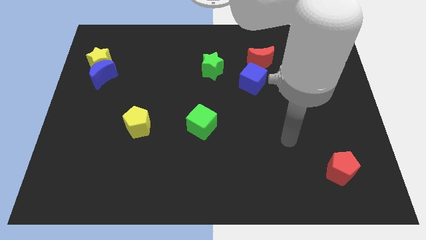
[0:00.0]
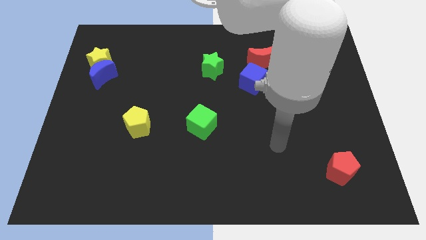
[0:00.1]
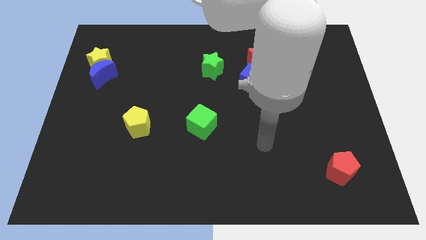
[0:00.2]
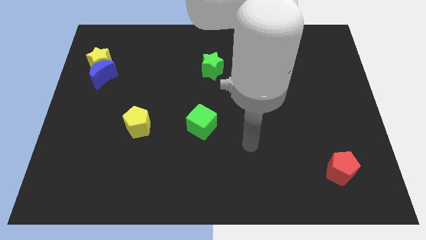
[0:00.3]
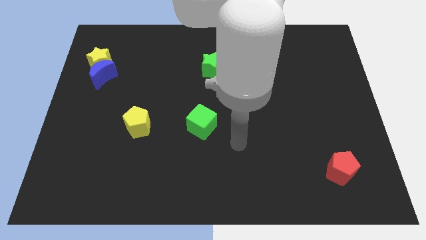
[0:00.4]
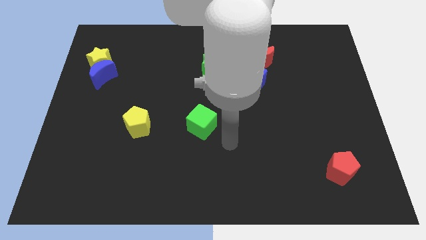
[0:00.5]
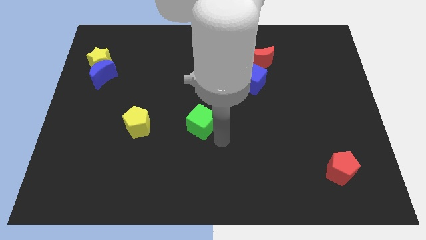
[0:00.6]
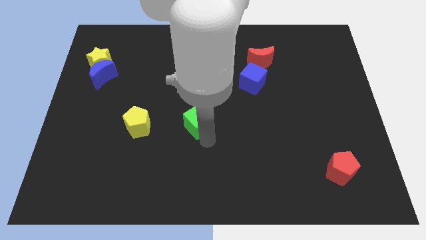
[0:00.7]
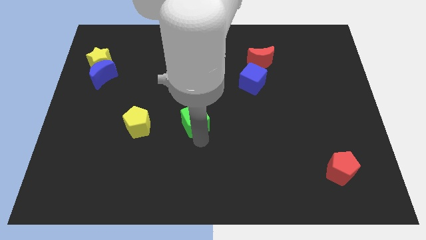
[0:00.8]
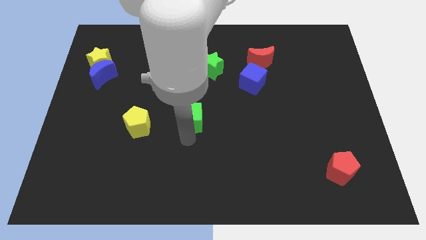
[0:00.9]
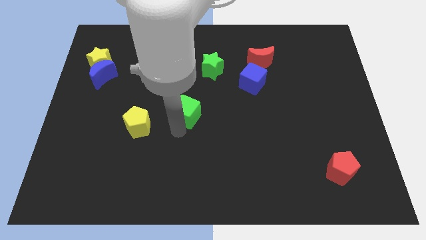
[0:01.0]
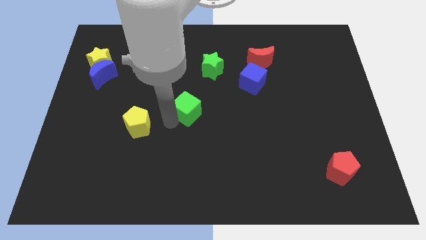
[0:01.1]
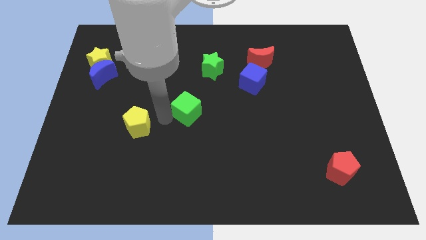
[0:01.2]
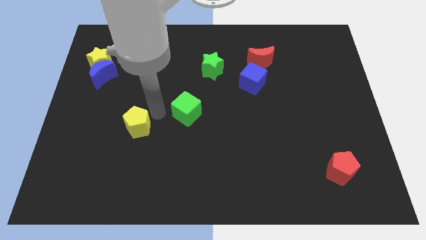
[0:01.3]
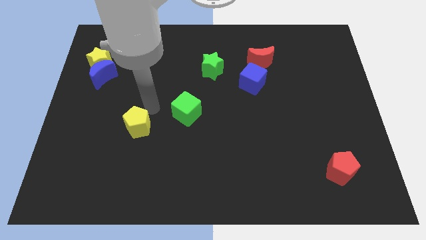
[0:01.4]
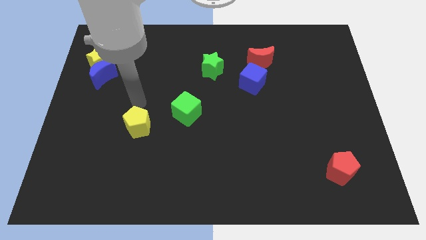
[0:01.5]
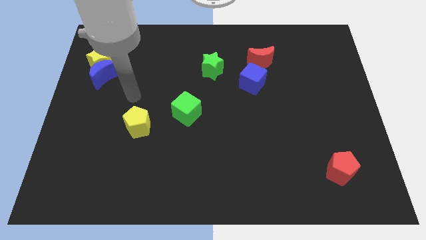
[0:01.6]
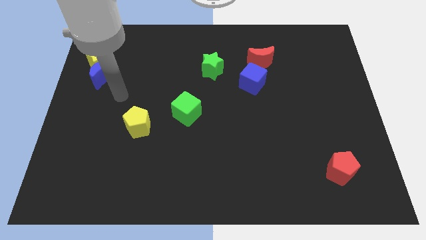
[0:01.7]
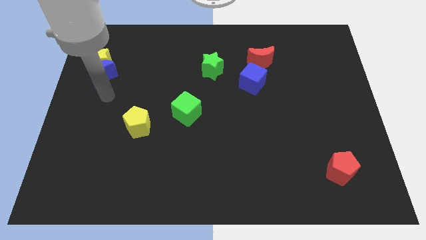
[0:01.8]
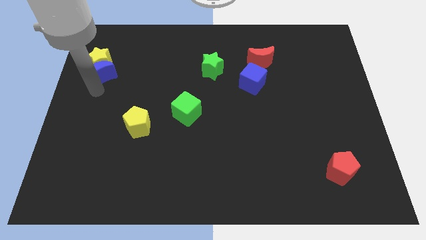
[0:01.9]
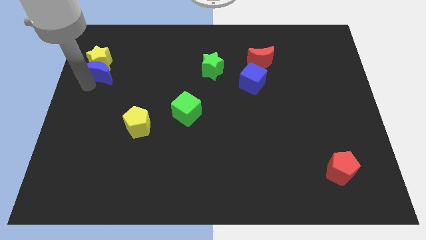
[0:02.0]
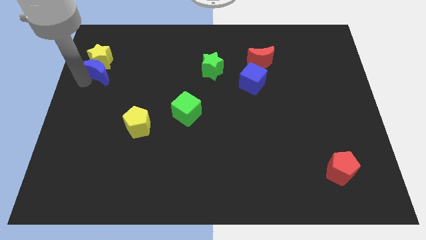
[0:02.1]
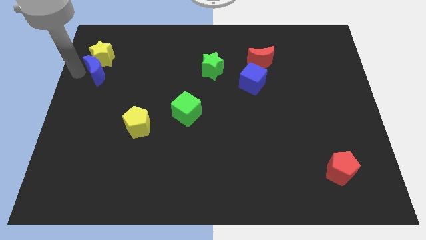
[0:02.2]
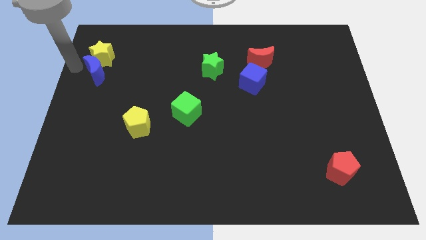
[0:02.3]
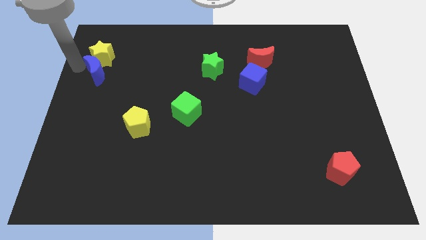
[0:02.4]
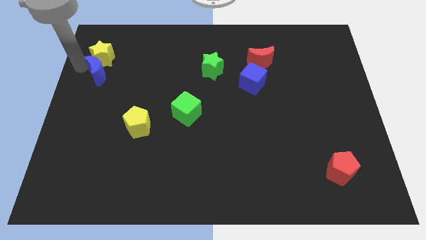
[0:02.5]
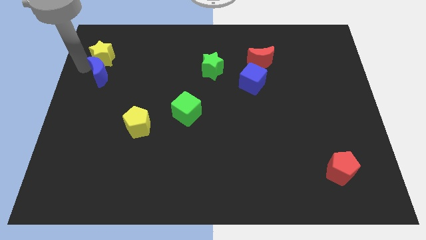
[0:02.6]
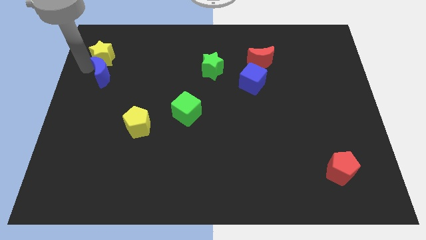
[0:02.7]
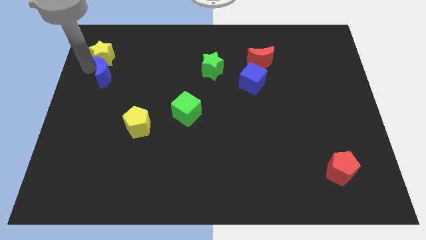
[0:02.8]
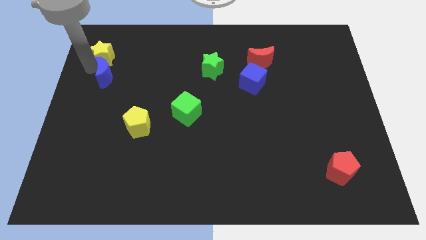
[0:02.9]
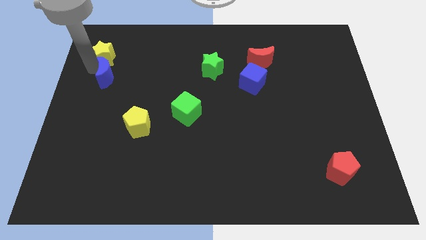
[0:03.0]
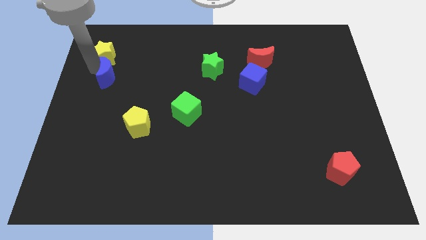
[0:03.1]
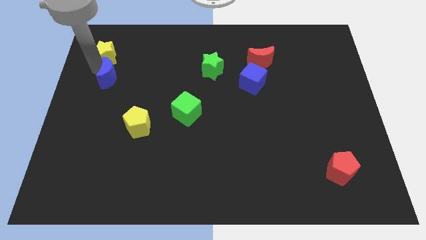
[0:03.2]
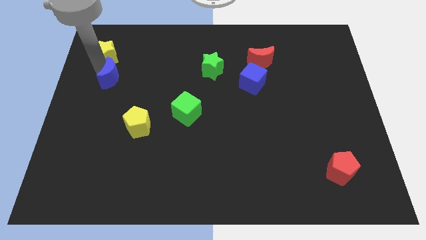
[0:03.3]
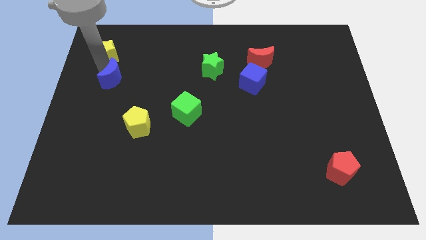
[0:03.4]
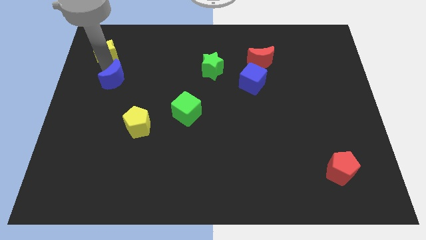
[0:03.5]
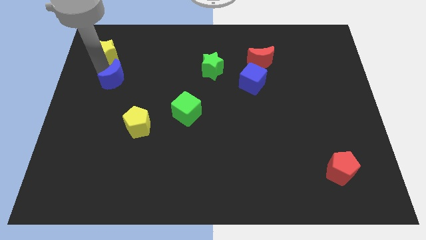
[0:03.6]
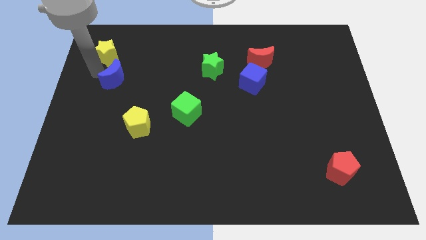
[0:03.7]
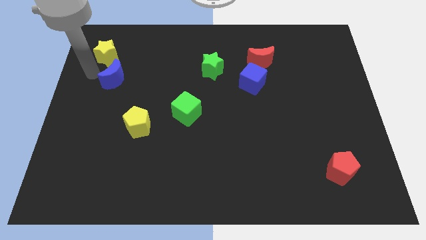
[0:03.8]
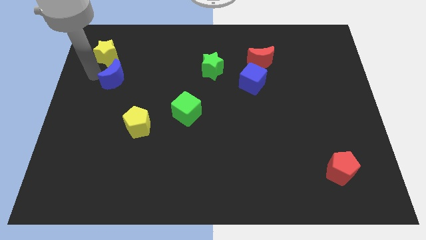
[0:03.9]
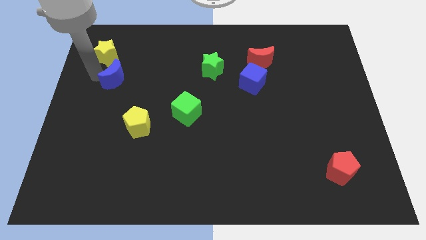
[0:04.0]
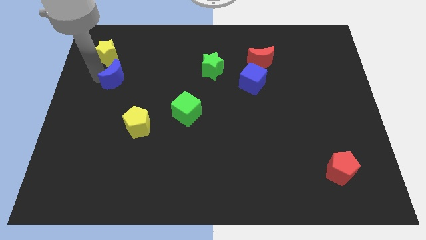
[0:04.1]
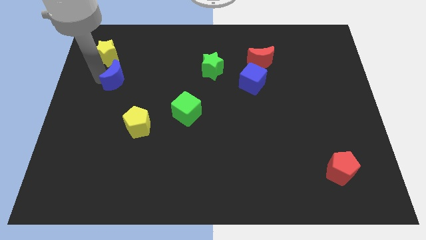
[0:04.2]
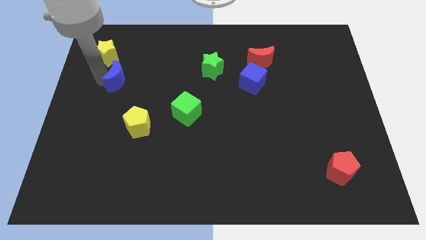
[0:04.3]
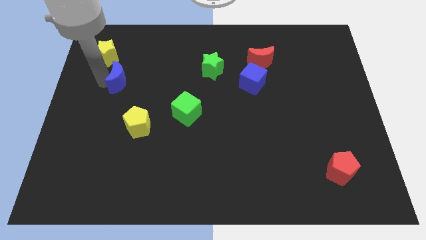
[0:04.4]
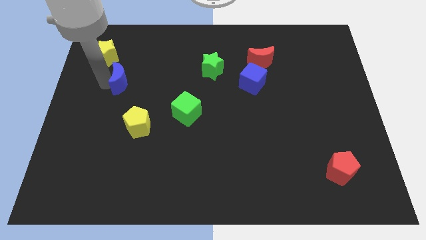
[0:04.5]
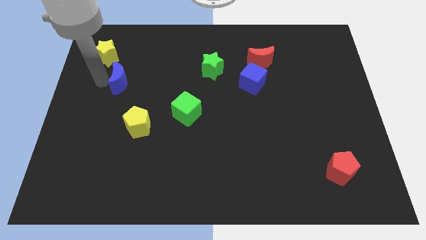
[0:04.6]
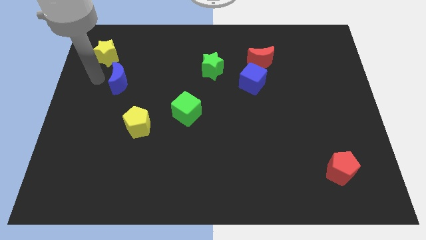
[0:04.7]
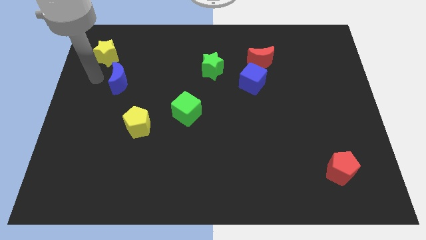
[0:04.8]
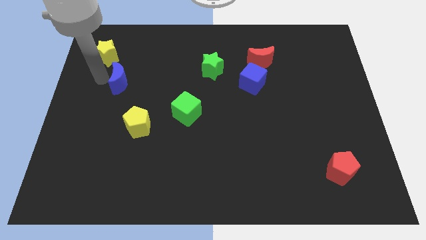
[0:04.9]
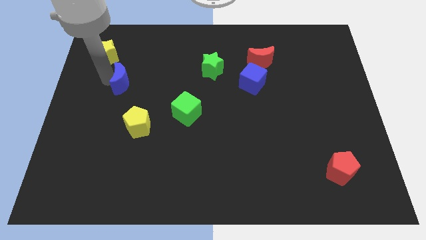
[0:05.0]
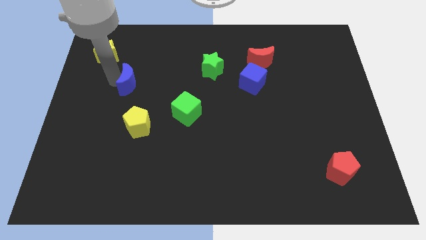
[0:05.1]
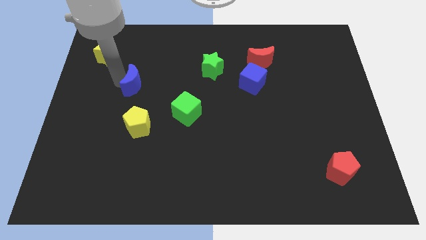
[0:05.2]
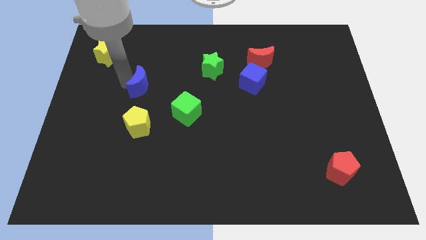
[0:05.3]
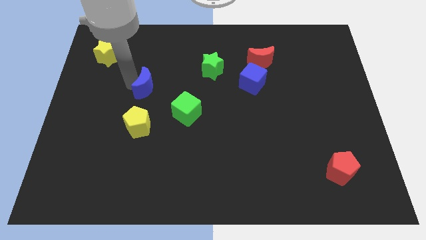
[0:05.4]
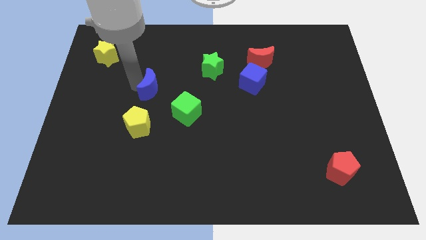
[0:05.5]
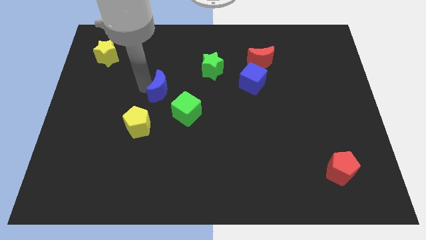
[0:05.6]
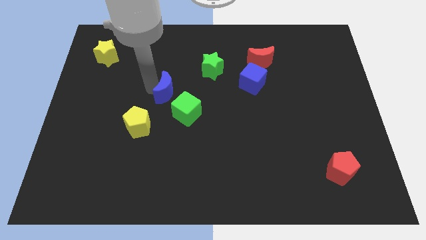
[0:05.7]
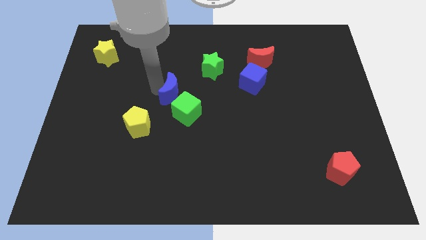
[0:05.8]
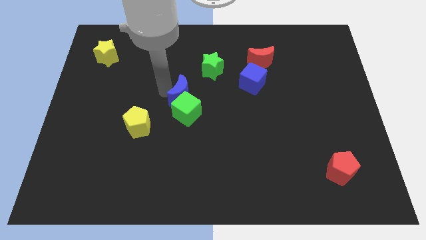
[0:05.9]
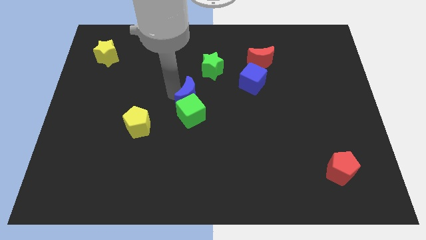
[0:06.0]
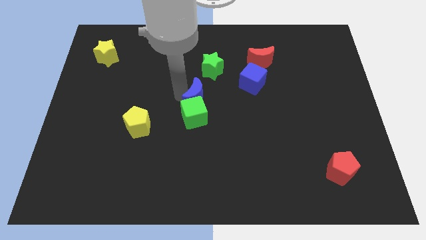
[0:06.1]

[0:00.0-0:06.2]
slide the blue moon to the bottom side of the green star

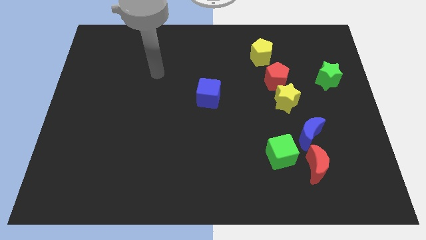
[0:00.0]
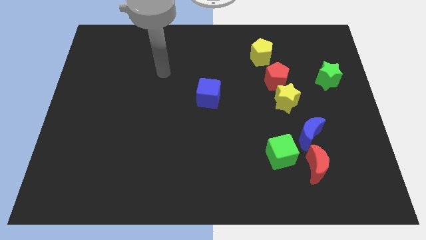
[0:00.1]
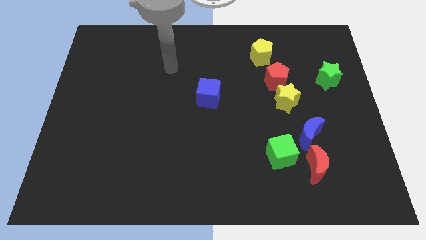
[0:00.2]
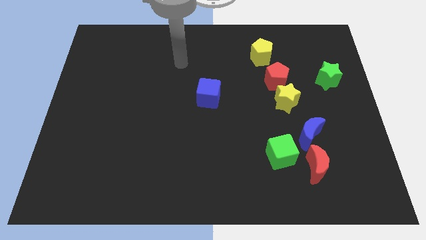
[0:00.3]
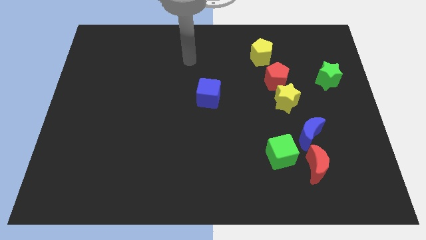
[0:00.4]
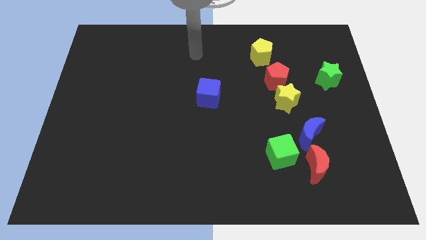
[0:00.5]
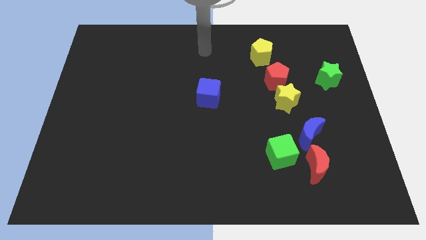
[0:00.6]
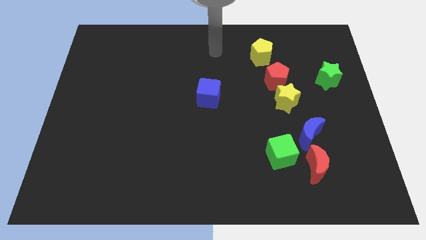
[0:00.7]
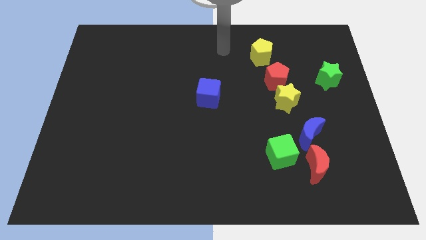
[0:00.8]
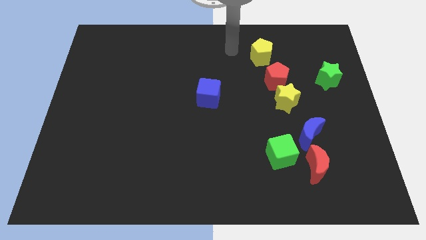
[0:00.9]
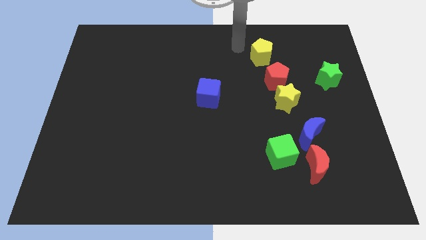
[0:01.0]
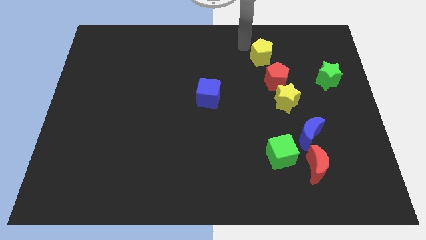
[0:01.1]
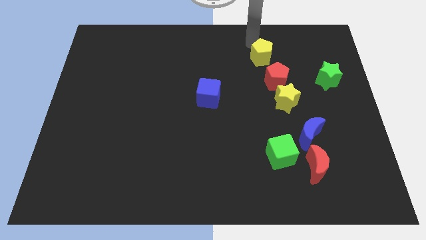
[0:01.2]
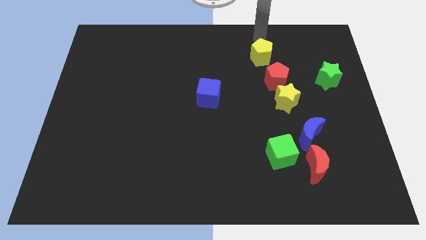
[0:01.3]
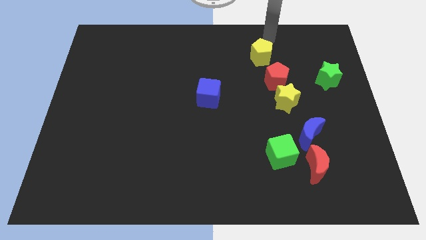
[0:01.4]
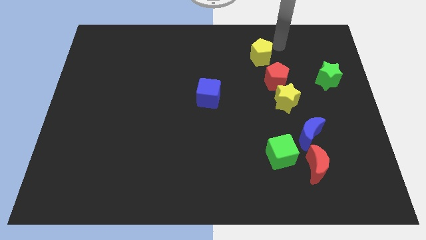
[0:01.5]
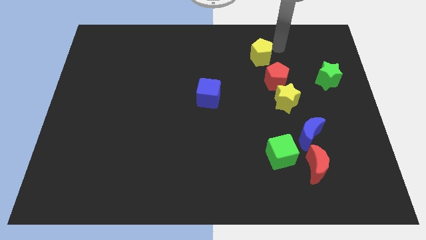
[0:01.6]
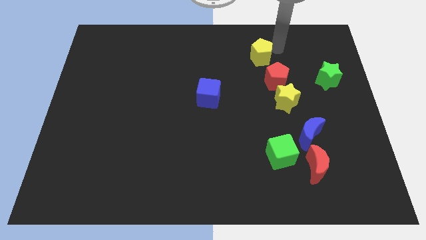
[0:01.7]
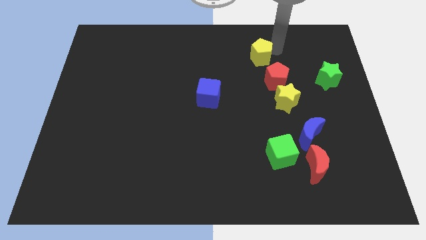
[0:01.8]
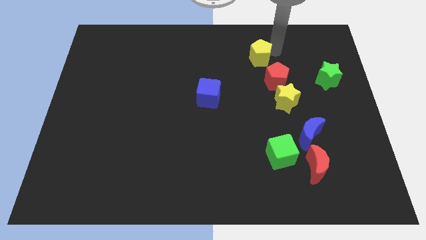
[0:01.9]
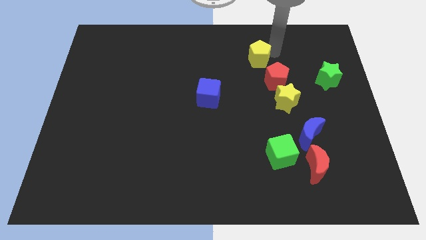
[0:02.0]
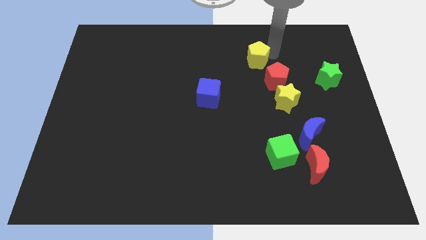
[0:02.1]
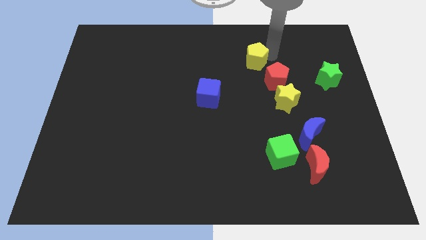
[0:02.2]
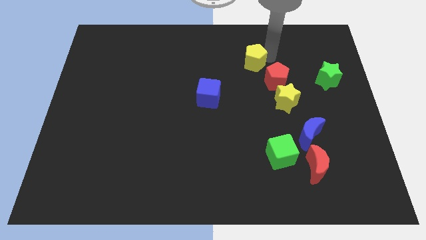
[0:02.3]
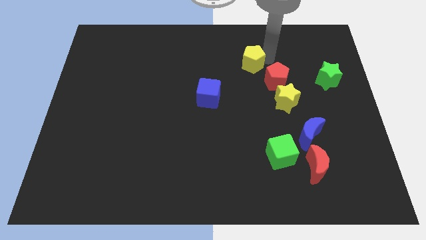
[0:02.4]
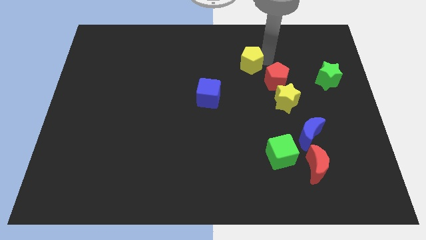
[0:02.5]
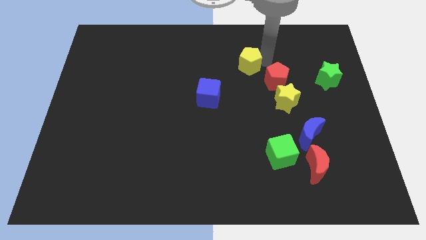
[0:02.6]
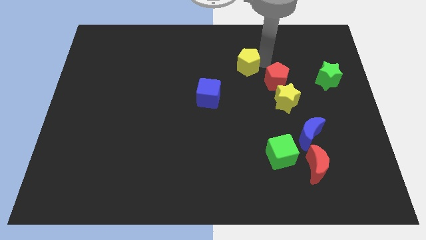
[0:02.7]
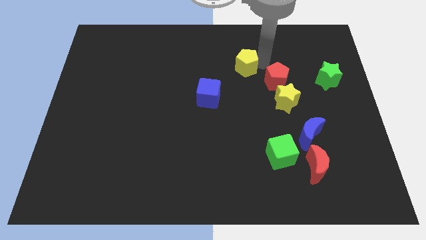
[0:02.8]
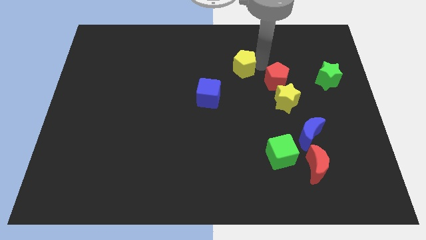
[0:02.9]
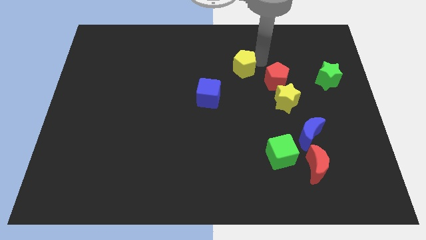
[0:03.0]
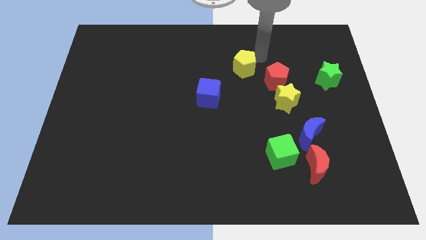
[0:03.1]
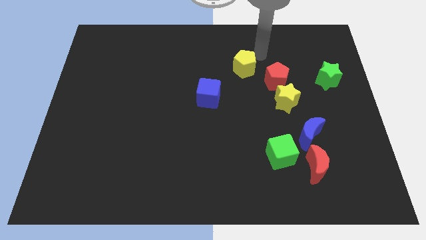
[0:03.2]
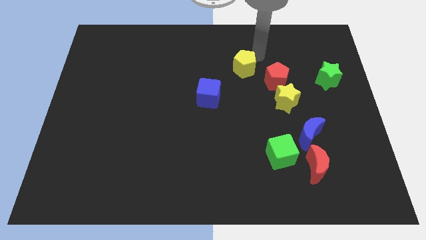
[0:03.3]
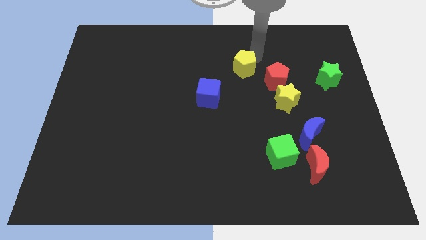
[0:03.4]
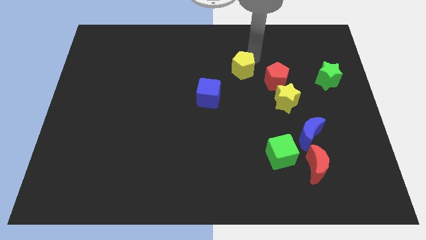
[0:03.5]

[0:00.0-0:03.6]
put the yellow pentagon to the top right of the blue cube
